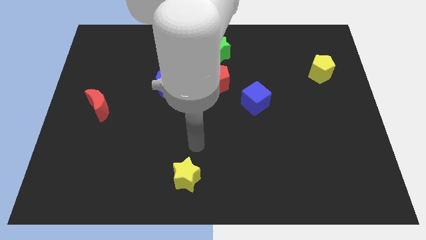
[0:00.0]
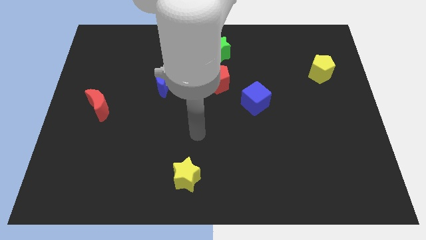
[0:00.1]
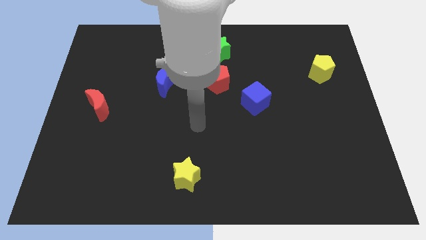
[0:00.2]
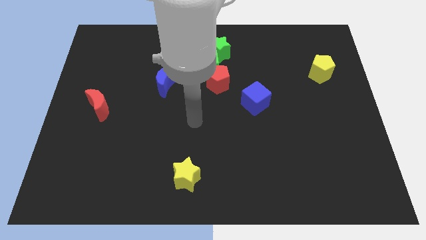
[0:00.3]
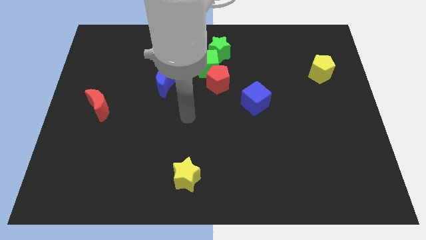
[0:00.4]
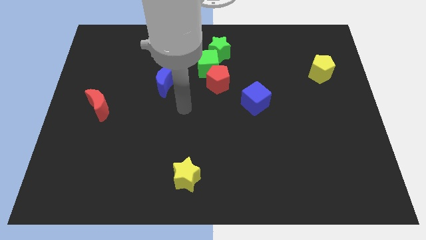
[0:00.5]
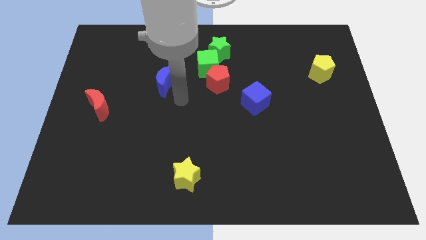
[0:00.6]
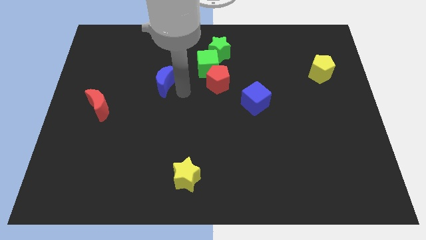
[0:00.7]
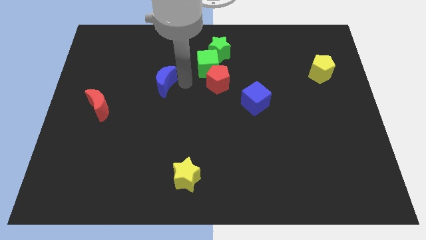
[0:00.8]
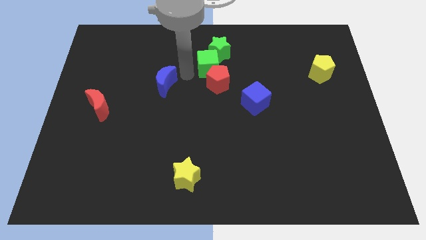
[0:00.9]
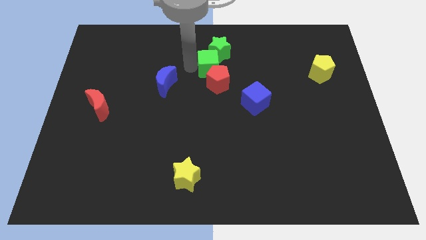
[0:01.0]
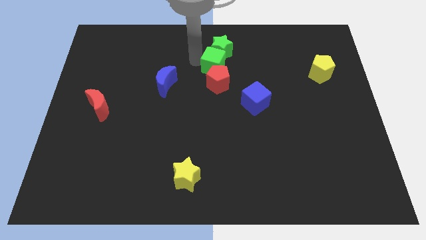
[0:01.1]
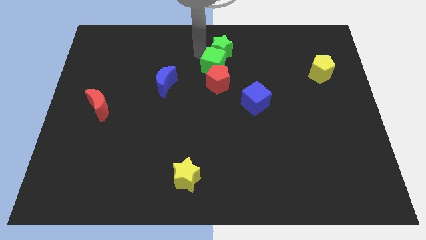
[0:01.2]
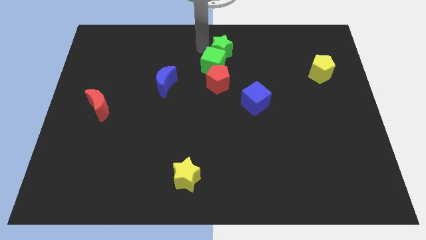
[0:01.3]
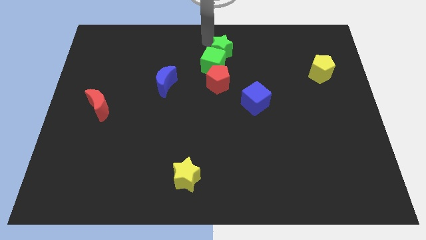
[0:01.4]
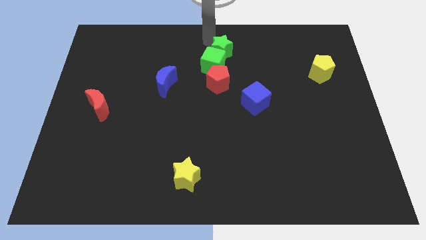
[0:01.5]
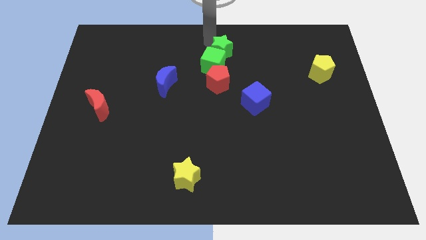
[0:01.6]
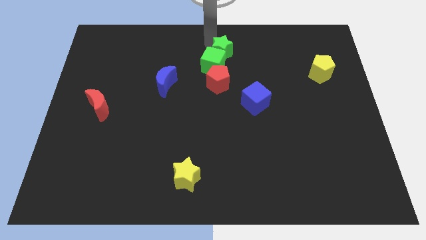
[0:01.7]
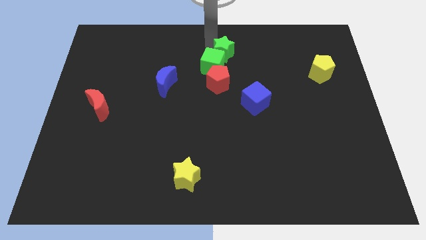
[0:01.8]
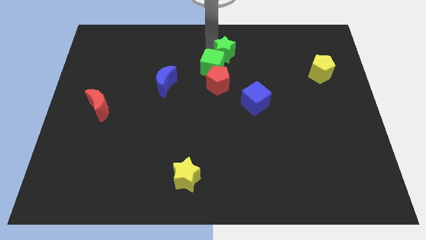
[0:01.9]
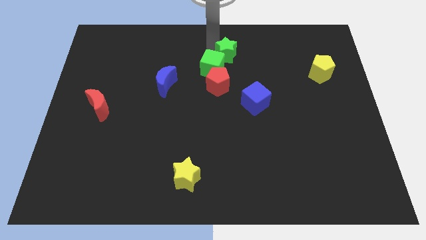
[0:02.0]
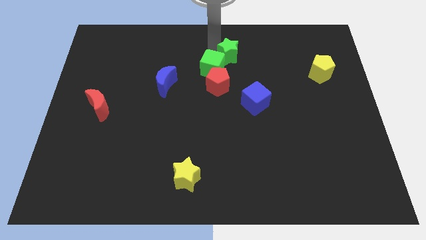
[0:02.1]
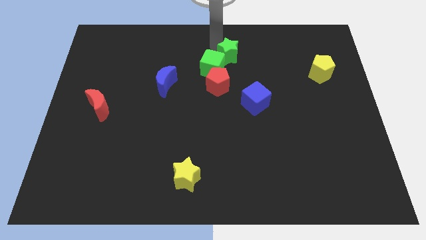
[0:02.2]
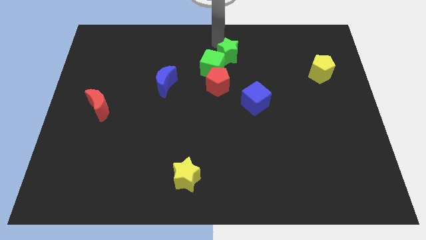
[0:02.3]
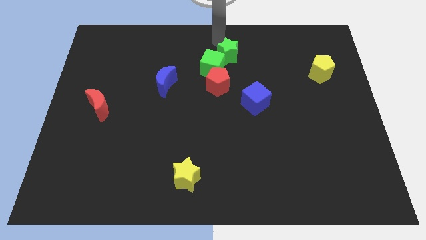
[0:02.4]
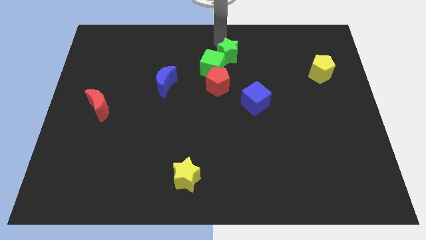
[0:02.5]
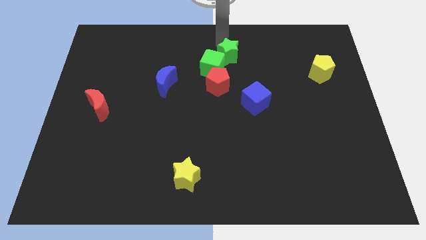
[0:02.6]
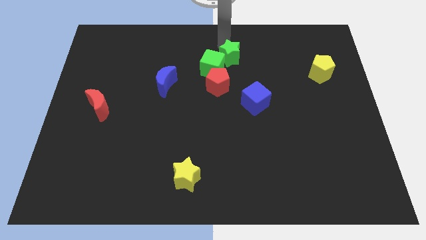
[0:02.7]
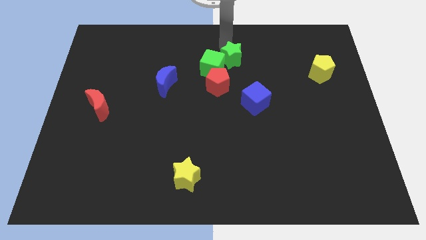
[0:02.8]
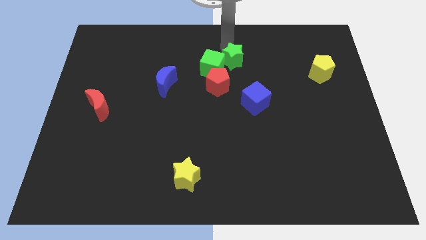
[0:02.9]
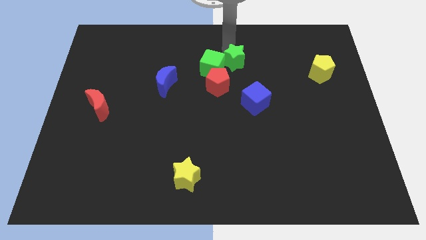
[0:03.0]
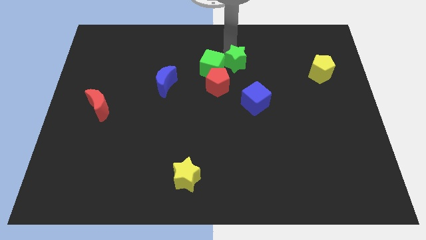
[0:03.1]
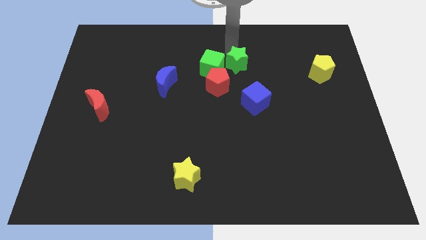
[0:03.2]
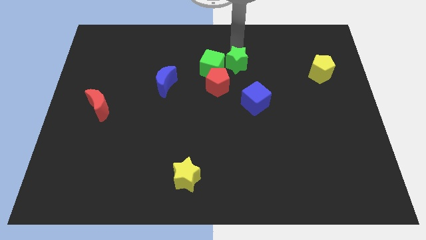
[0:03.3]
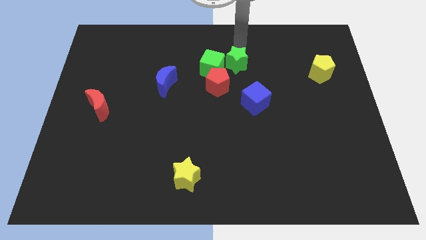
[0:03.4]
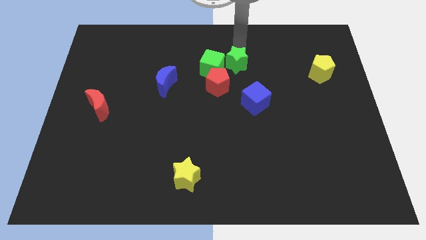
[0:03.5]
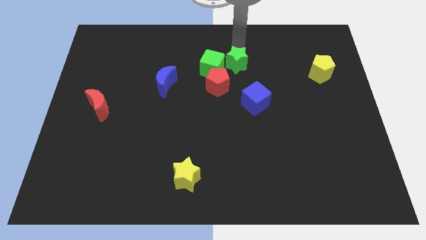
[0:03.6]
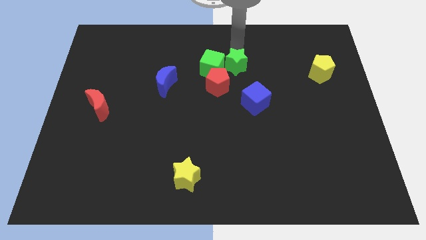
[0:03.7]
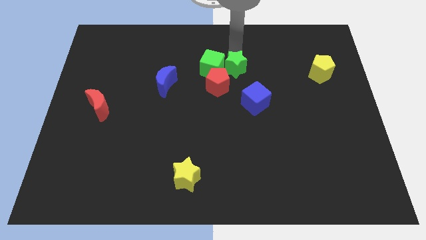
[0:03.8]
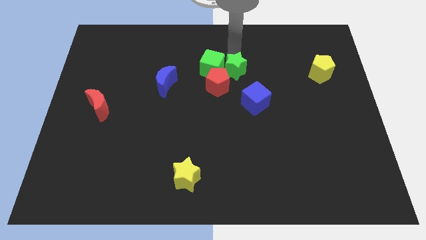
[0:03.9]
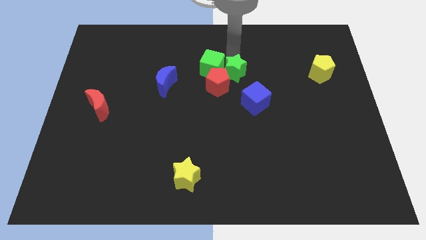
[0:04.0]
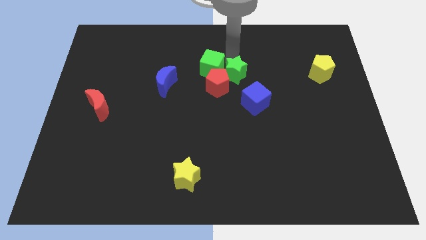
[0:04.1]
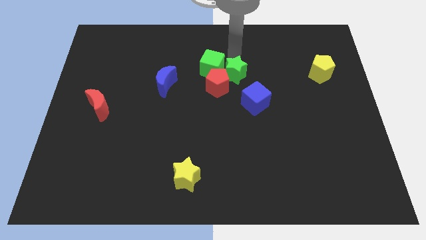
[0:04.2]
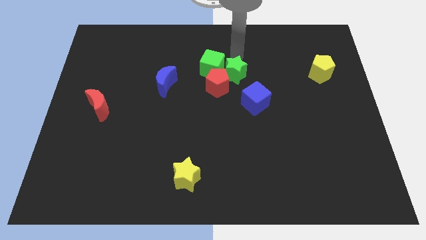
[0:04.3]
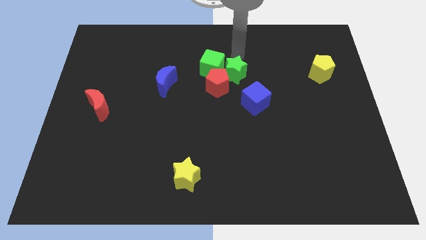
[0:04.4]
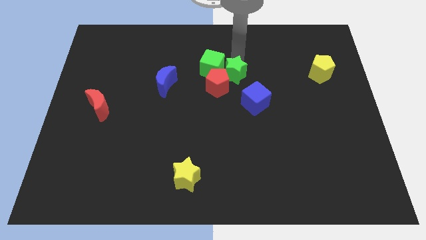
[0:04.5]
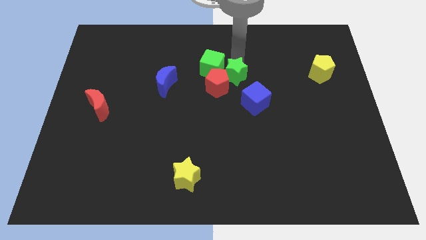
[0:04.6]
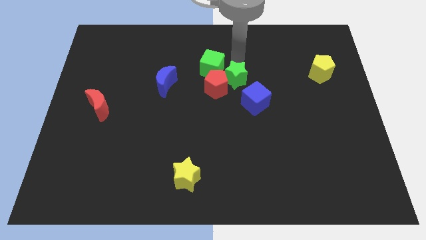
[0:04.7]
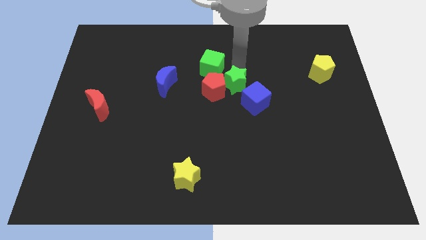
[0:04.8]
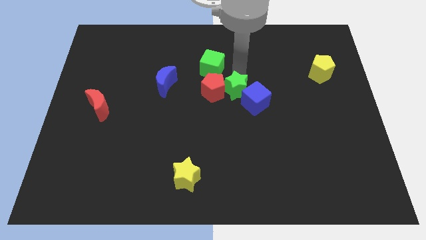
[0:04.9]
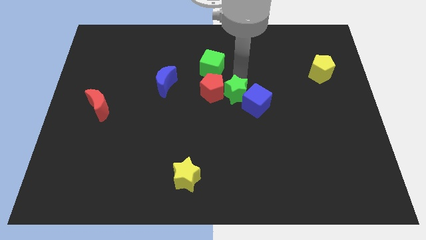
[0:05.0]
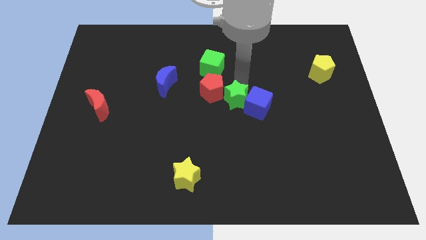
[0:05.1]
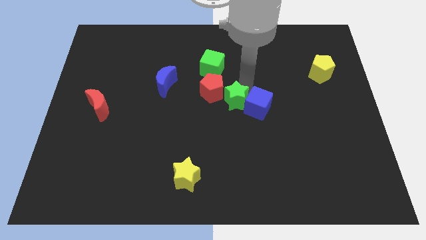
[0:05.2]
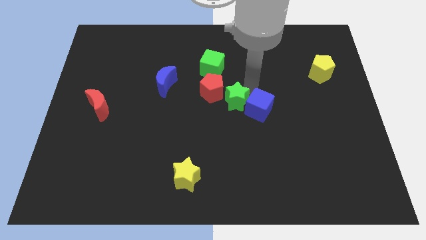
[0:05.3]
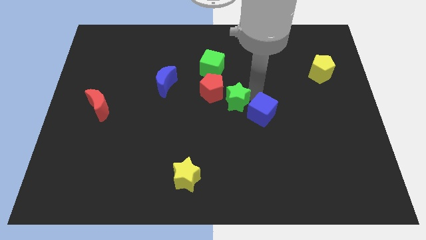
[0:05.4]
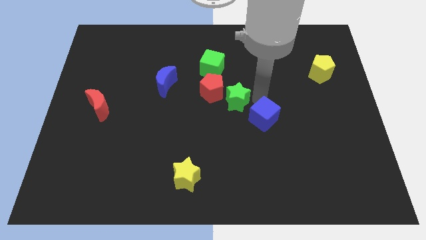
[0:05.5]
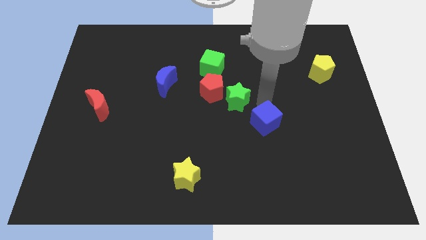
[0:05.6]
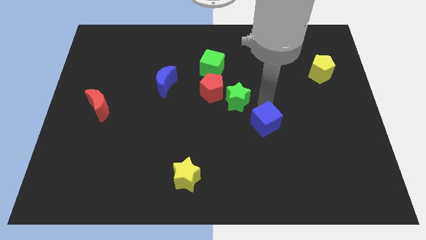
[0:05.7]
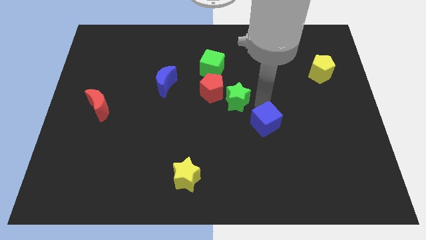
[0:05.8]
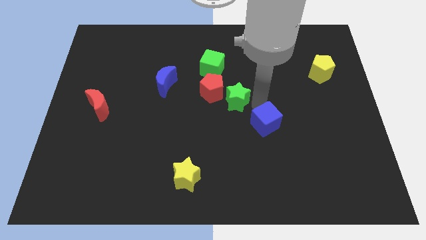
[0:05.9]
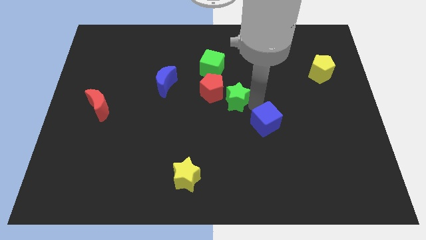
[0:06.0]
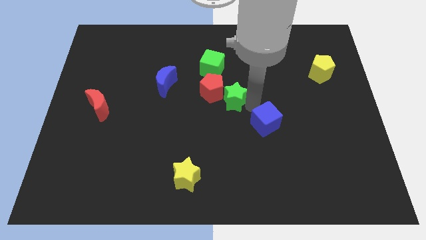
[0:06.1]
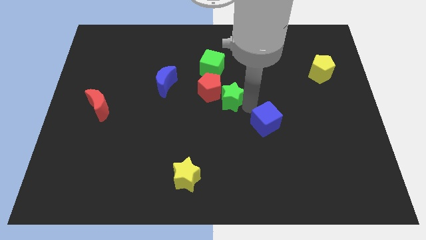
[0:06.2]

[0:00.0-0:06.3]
slide the green star below the green cube
